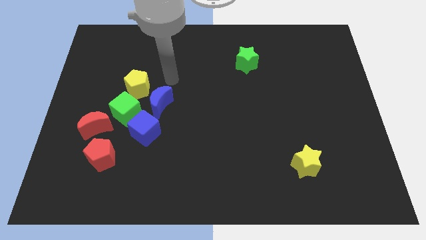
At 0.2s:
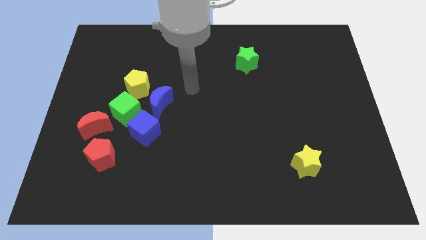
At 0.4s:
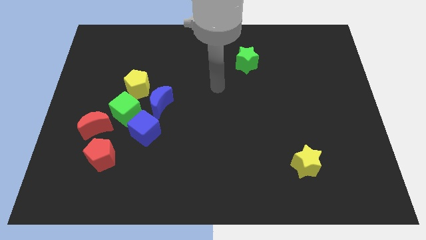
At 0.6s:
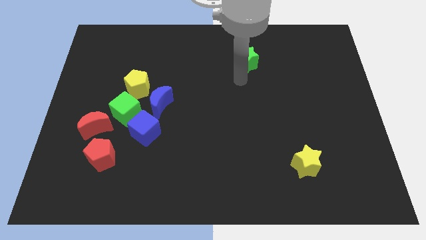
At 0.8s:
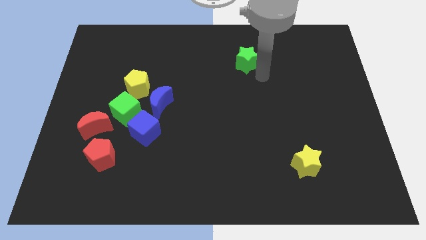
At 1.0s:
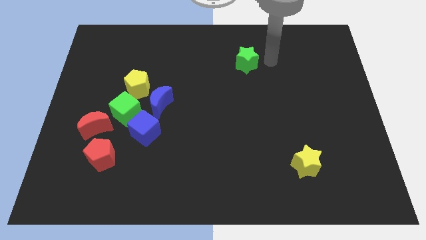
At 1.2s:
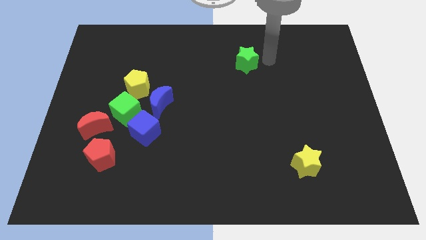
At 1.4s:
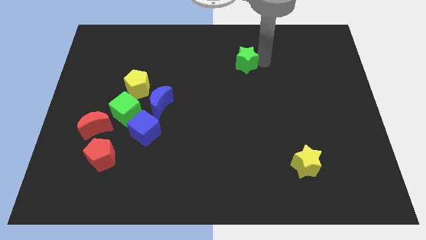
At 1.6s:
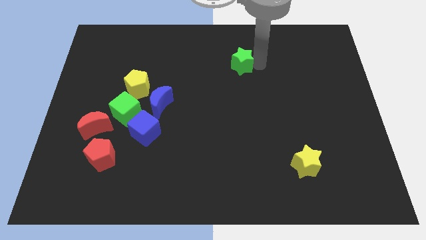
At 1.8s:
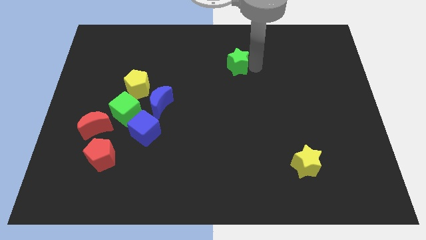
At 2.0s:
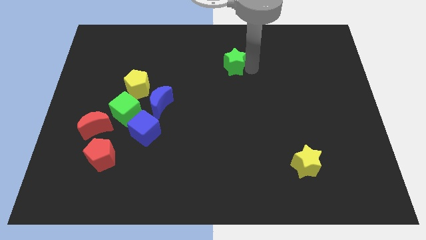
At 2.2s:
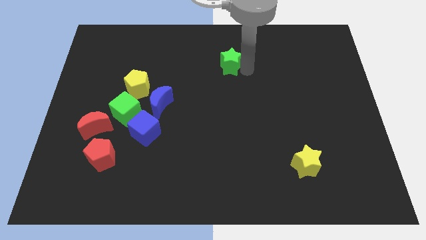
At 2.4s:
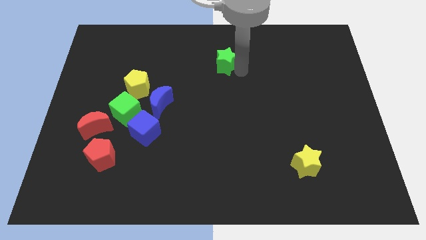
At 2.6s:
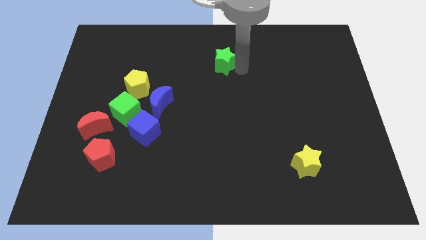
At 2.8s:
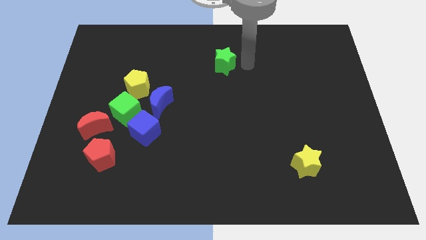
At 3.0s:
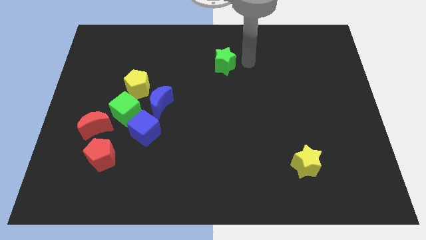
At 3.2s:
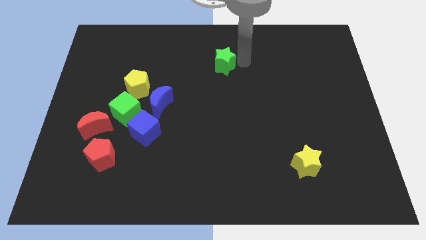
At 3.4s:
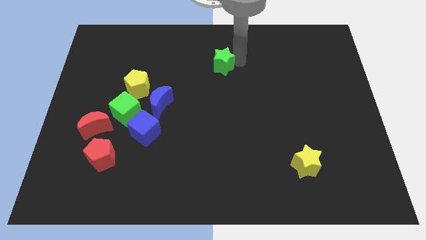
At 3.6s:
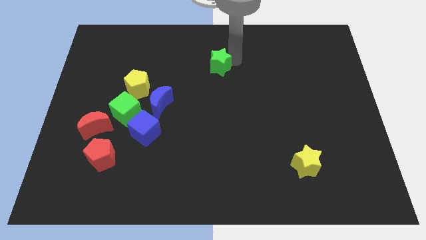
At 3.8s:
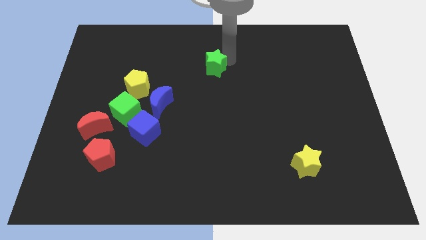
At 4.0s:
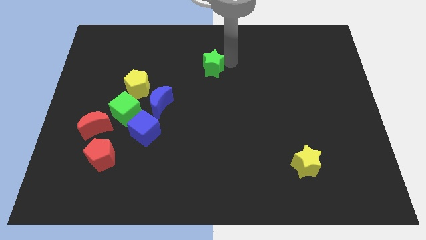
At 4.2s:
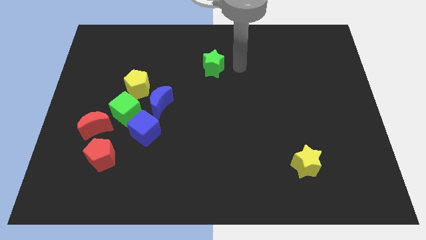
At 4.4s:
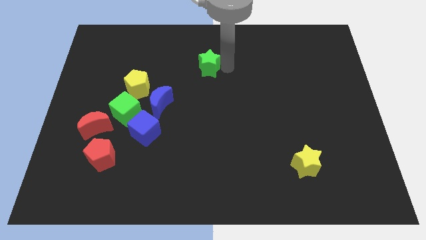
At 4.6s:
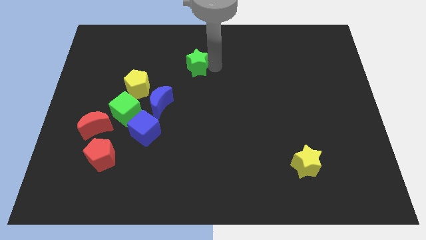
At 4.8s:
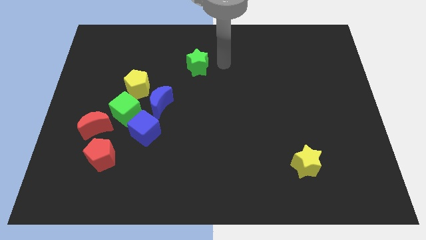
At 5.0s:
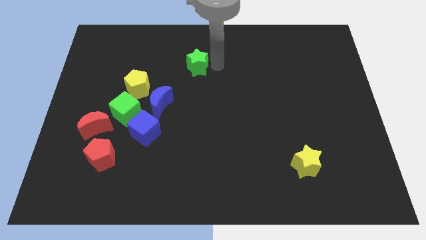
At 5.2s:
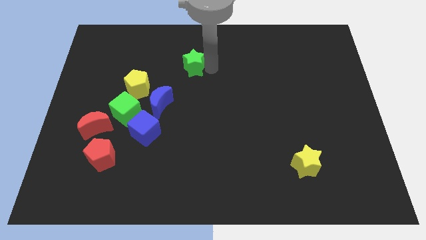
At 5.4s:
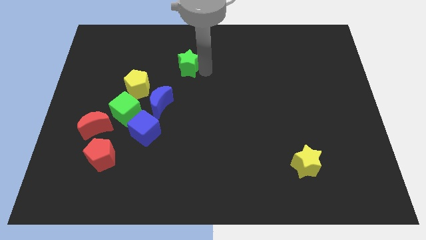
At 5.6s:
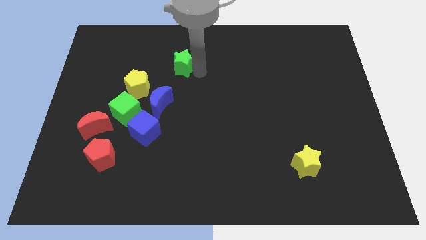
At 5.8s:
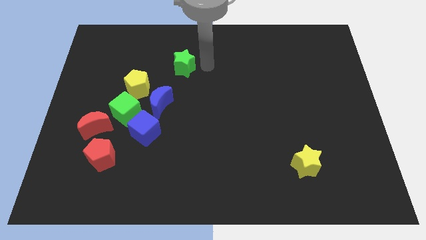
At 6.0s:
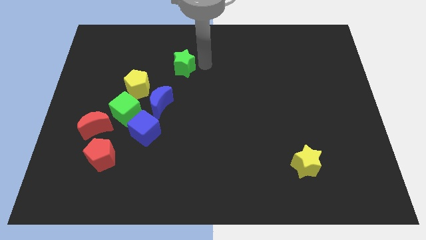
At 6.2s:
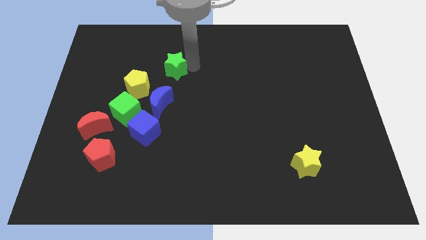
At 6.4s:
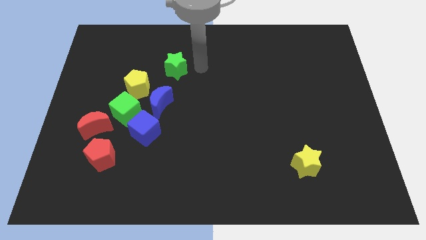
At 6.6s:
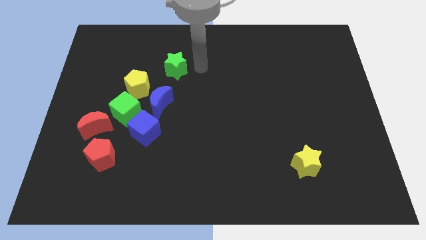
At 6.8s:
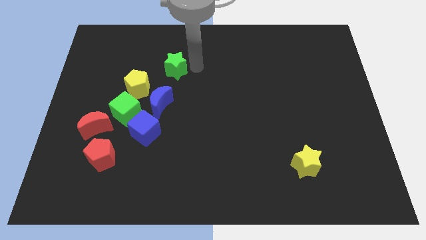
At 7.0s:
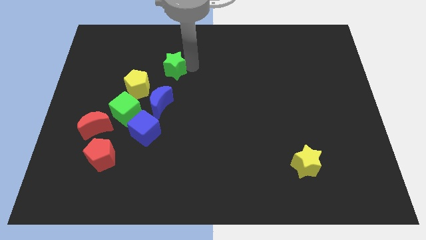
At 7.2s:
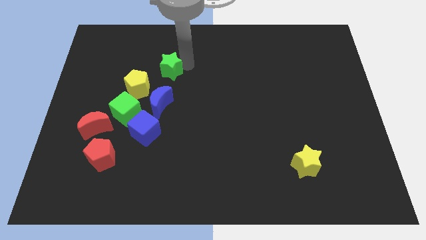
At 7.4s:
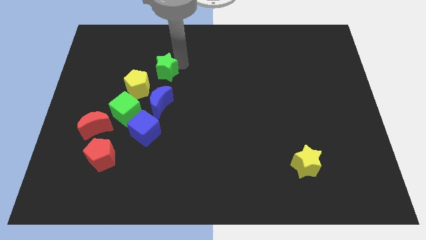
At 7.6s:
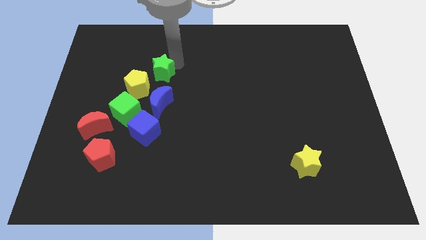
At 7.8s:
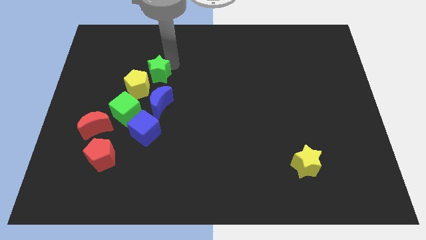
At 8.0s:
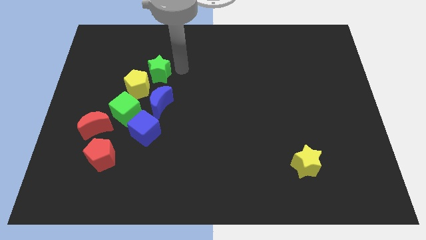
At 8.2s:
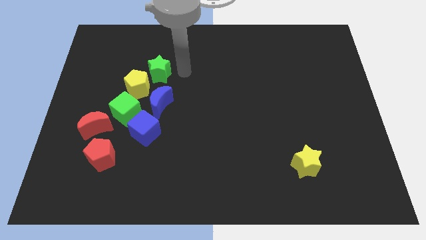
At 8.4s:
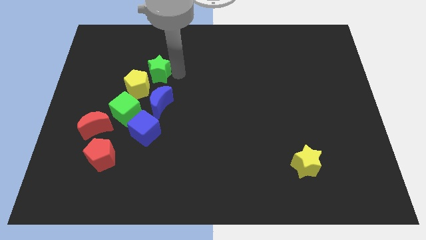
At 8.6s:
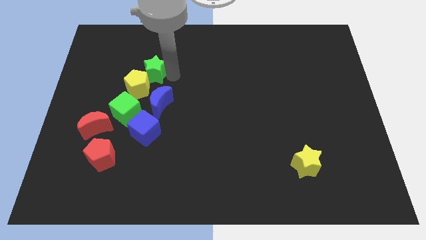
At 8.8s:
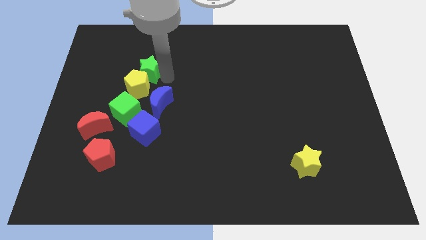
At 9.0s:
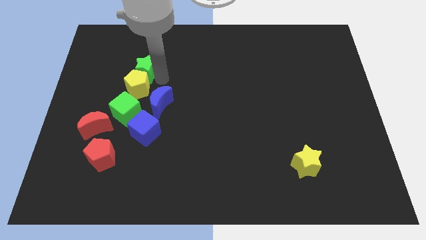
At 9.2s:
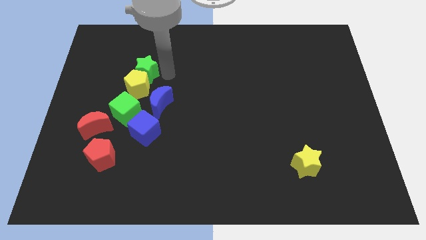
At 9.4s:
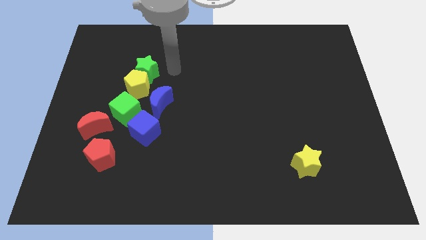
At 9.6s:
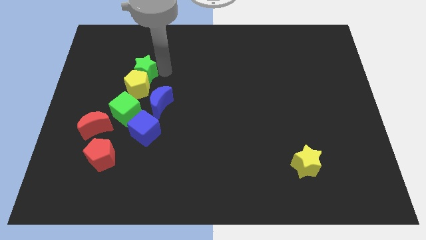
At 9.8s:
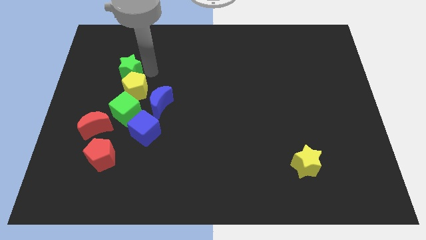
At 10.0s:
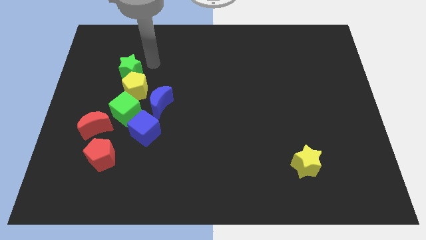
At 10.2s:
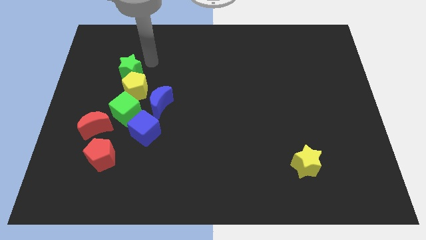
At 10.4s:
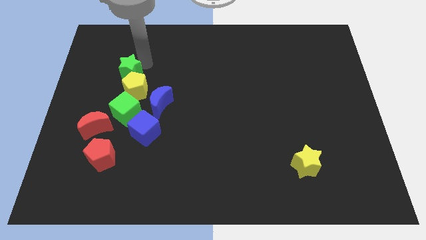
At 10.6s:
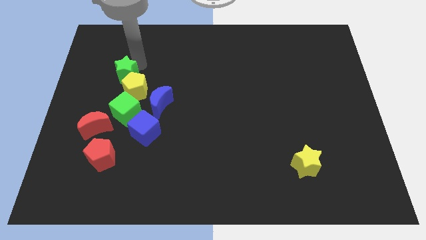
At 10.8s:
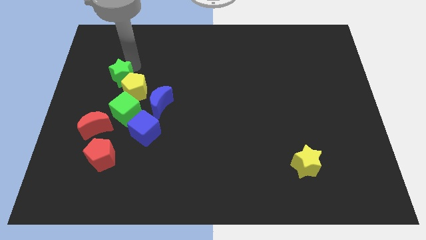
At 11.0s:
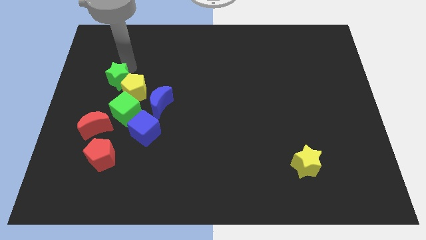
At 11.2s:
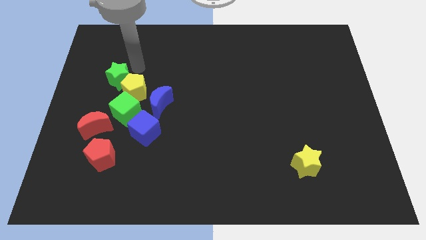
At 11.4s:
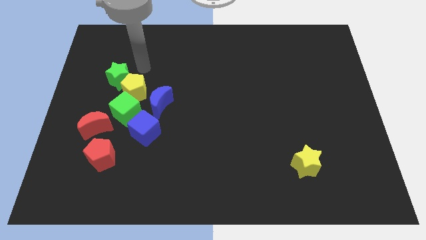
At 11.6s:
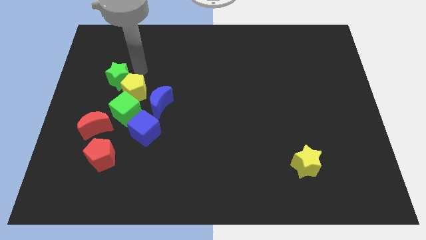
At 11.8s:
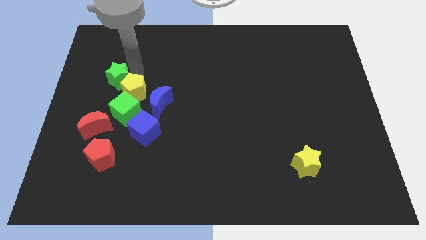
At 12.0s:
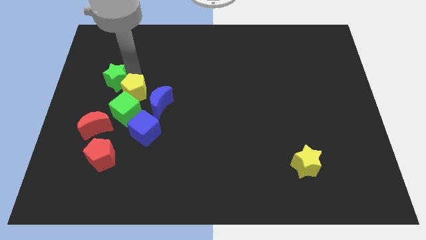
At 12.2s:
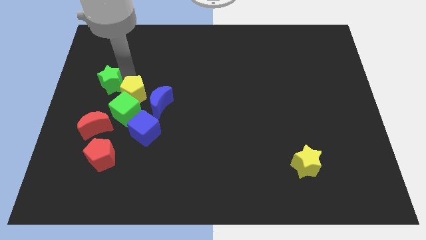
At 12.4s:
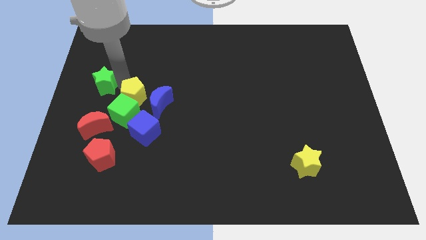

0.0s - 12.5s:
push the green star to the center left

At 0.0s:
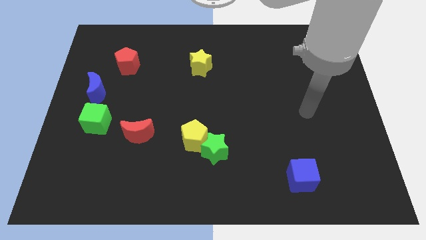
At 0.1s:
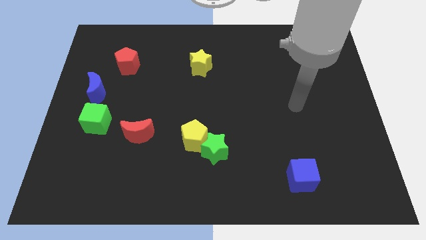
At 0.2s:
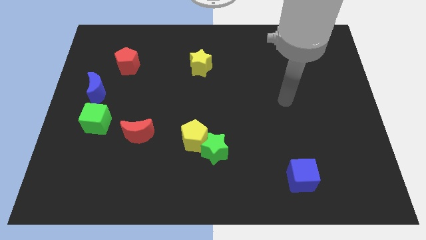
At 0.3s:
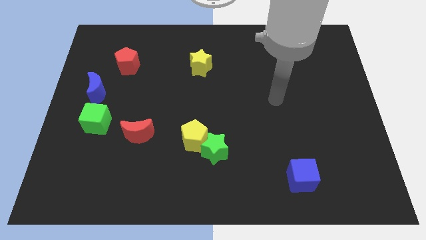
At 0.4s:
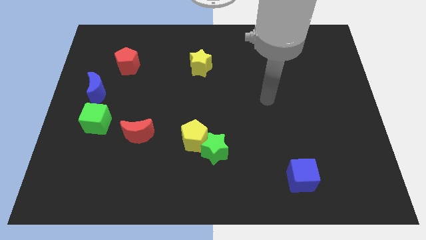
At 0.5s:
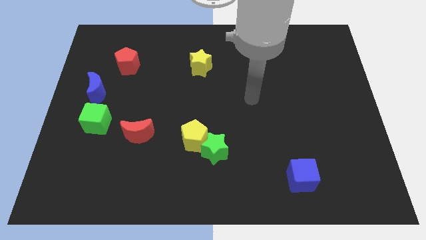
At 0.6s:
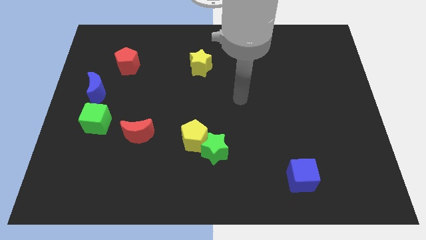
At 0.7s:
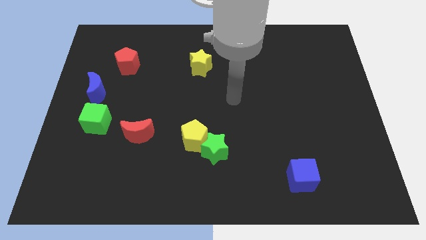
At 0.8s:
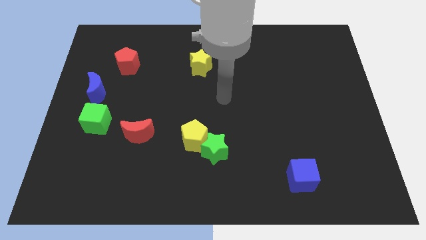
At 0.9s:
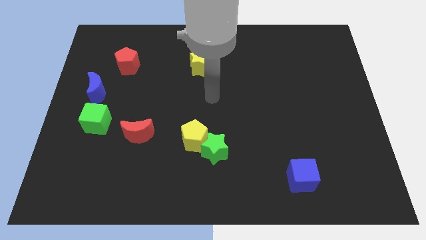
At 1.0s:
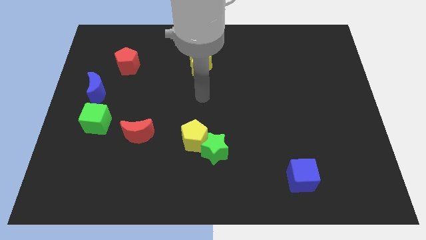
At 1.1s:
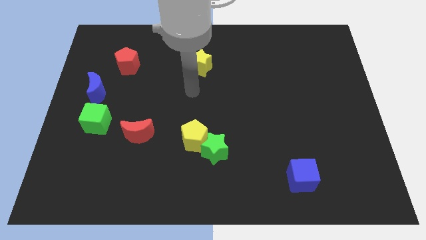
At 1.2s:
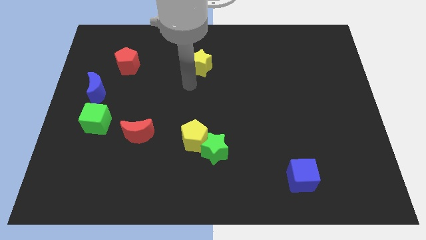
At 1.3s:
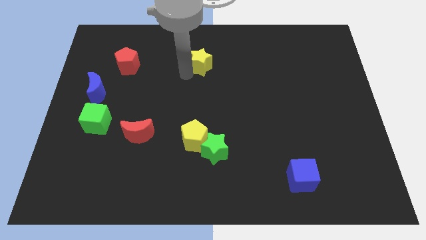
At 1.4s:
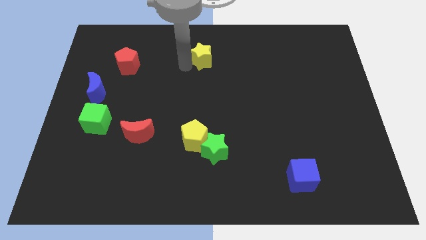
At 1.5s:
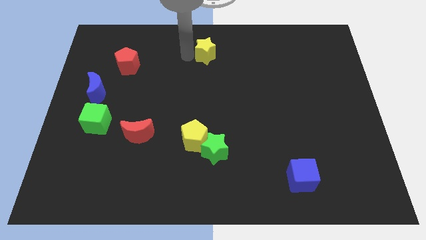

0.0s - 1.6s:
slide the yellow star to the towards your base
